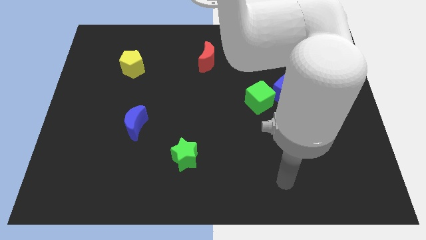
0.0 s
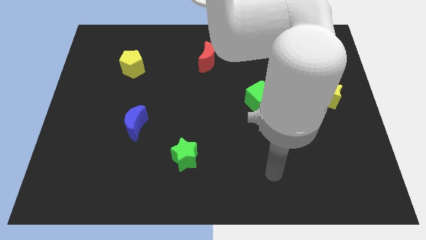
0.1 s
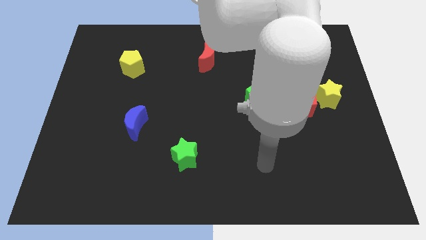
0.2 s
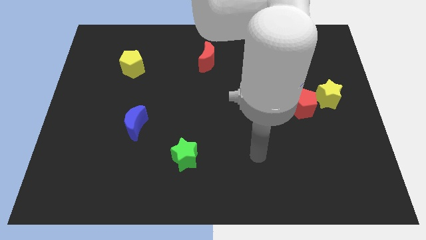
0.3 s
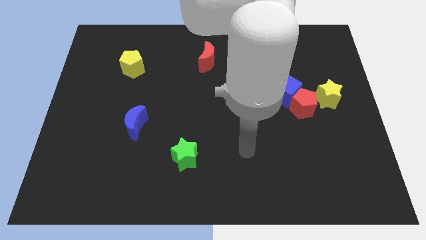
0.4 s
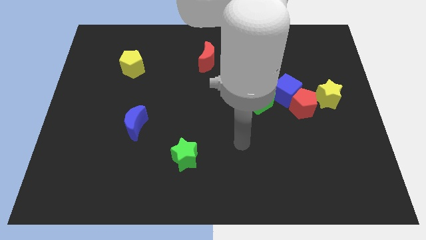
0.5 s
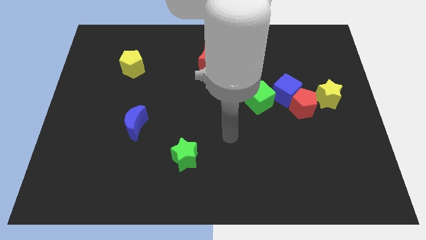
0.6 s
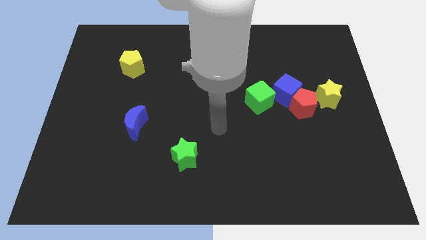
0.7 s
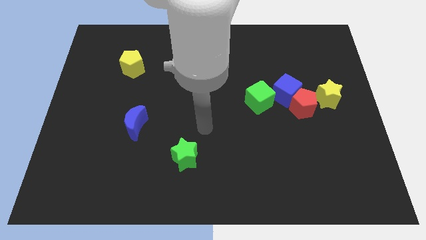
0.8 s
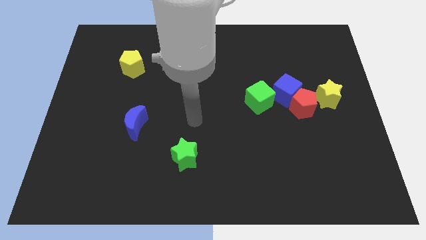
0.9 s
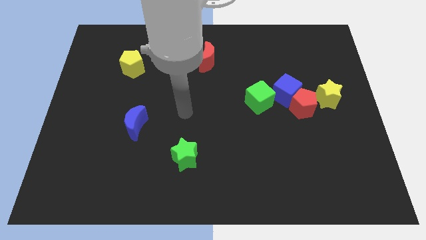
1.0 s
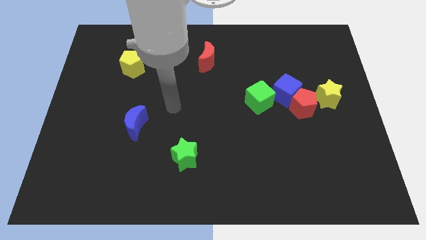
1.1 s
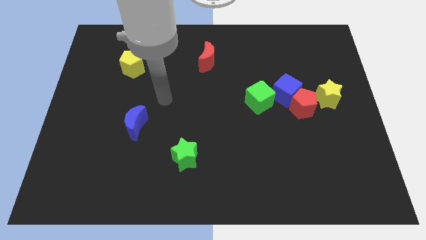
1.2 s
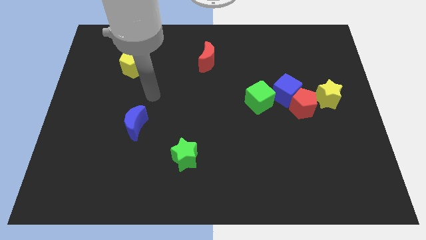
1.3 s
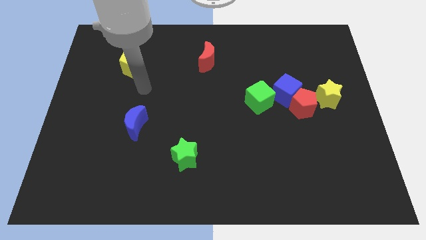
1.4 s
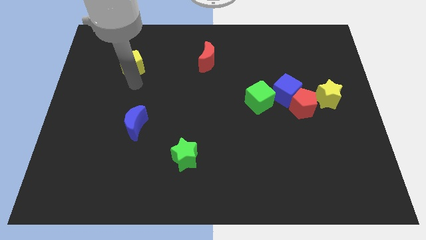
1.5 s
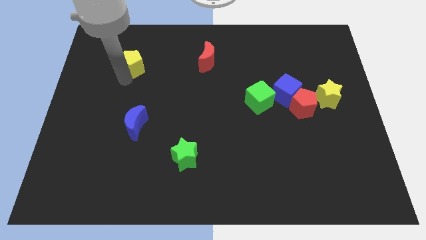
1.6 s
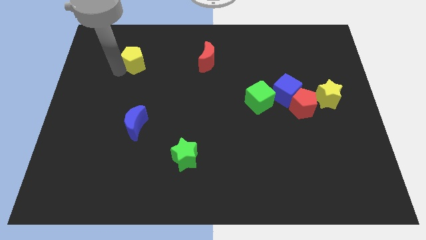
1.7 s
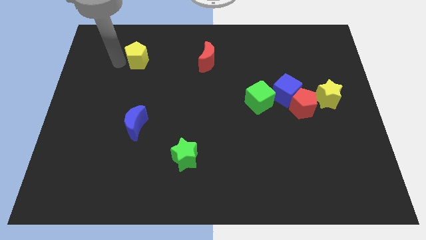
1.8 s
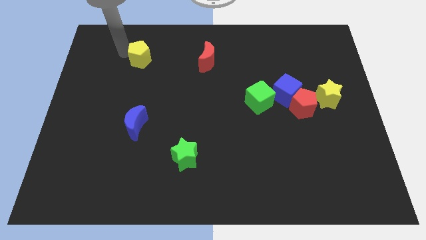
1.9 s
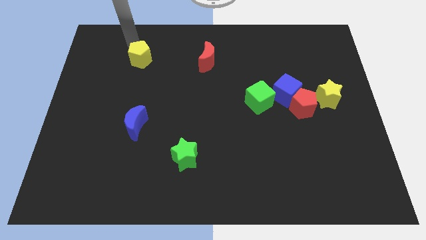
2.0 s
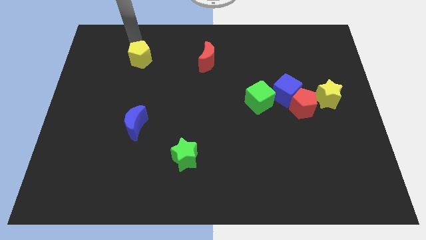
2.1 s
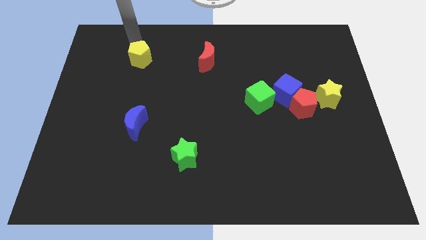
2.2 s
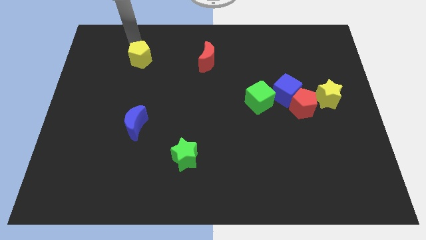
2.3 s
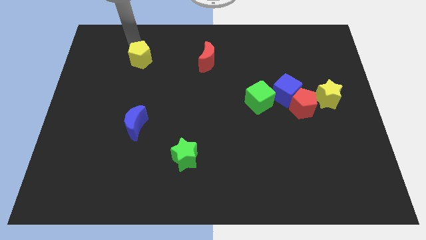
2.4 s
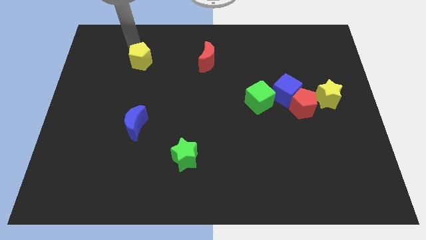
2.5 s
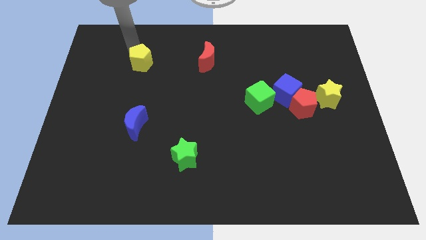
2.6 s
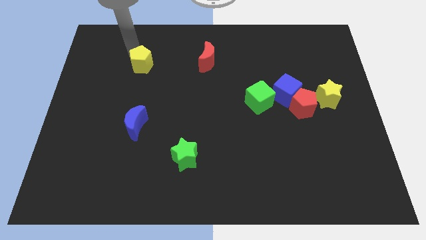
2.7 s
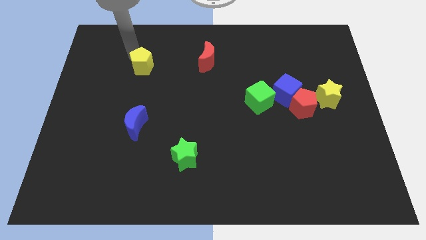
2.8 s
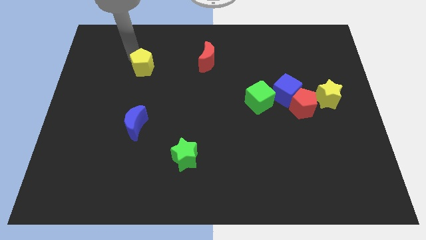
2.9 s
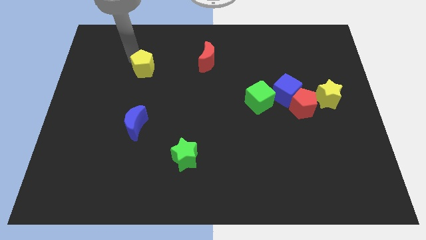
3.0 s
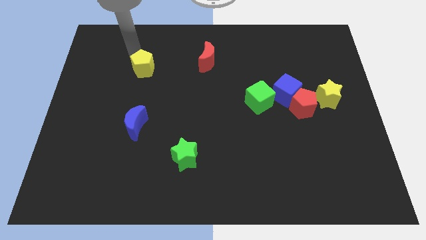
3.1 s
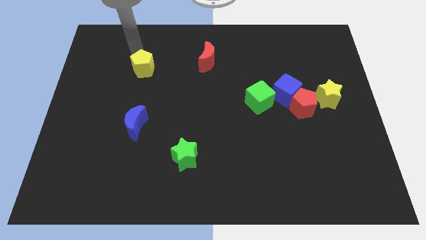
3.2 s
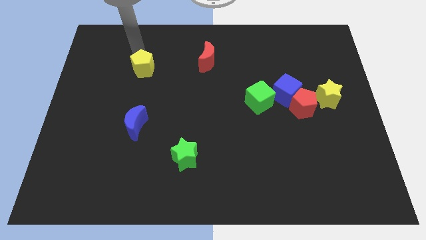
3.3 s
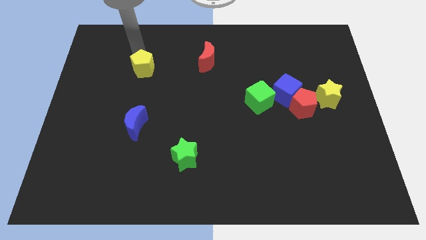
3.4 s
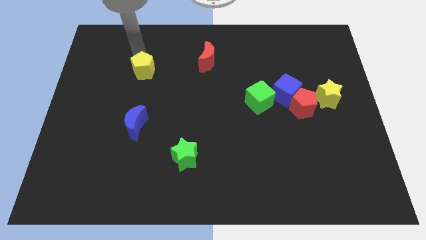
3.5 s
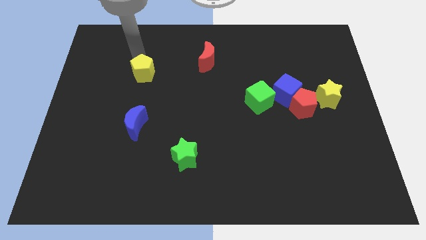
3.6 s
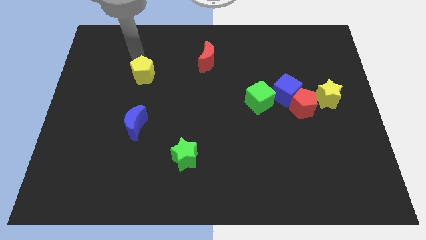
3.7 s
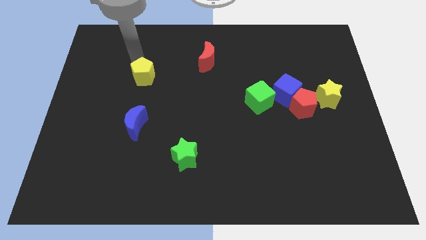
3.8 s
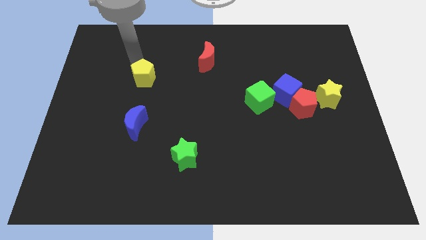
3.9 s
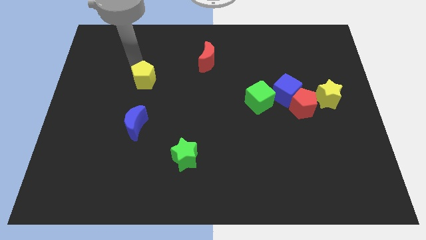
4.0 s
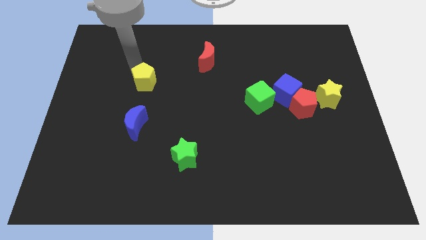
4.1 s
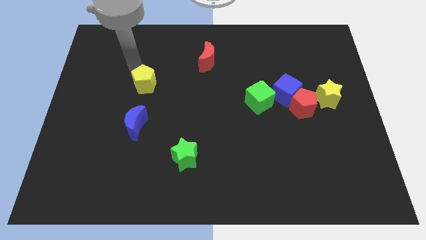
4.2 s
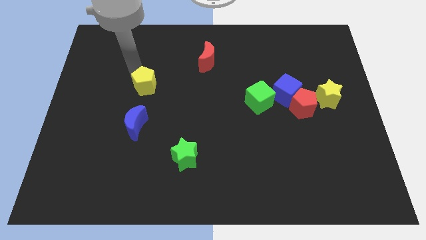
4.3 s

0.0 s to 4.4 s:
push the yellow pentagon somewhat downwards and then to the right

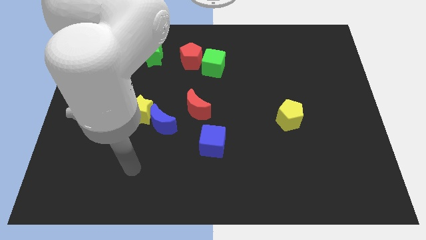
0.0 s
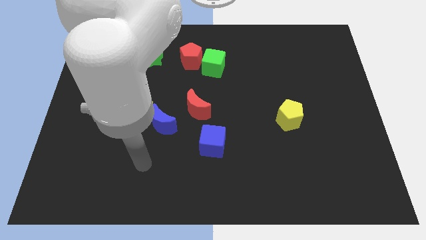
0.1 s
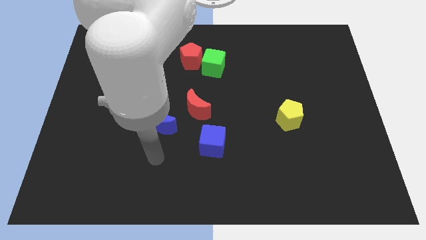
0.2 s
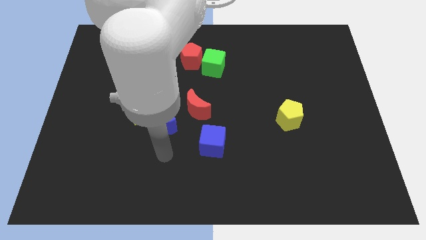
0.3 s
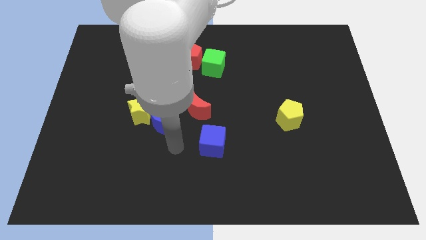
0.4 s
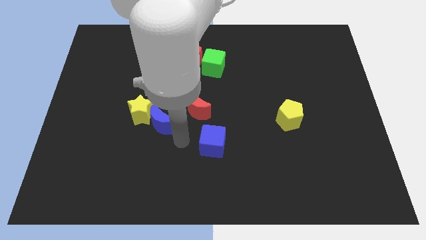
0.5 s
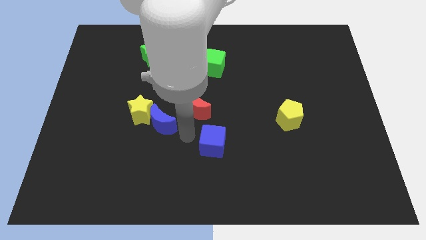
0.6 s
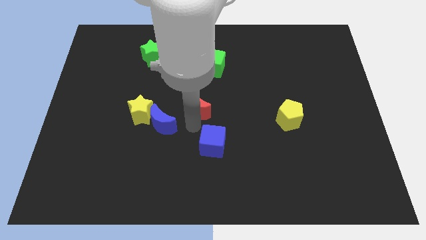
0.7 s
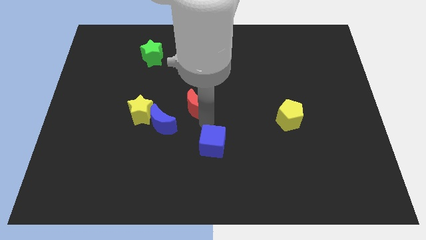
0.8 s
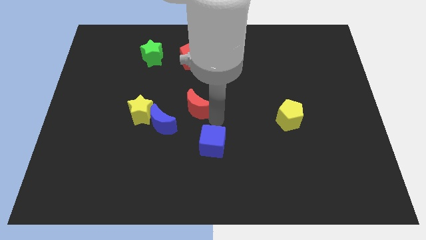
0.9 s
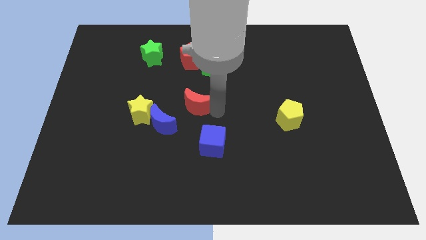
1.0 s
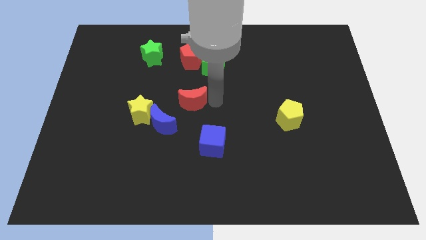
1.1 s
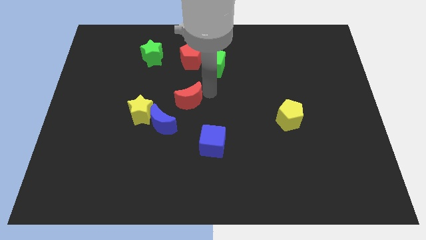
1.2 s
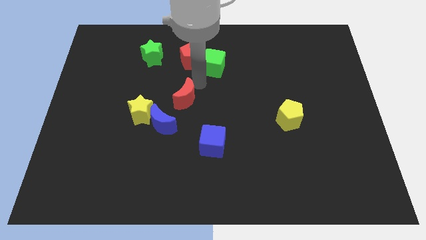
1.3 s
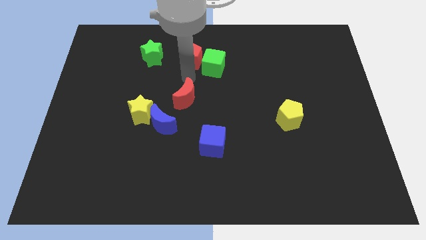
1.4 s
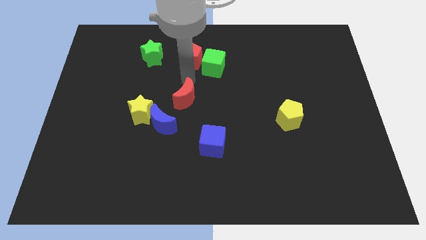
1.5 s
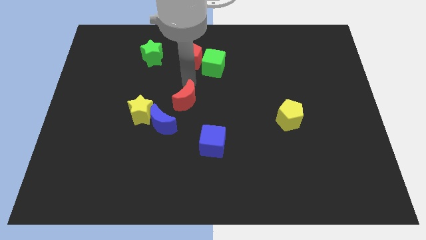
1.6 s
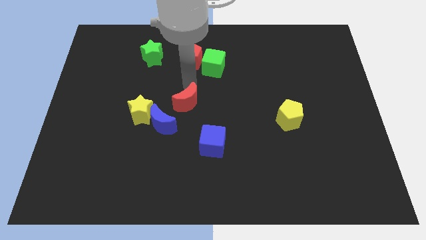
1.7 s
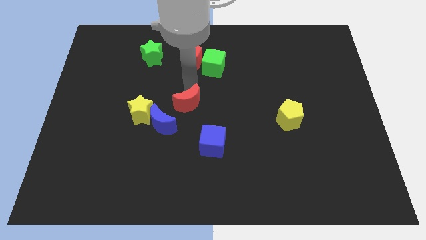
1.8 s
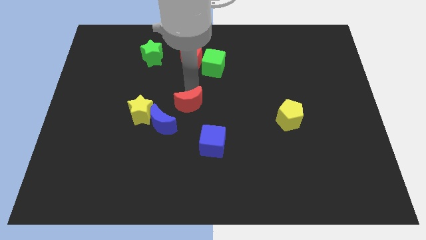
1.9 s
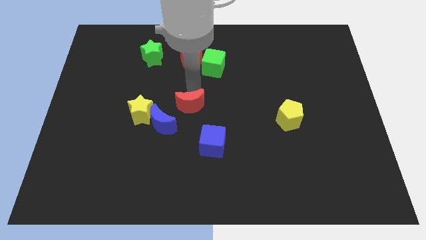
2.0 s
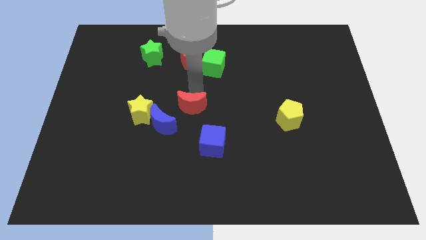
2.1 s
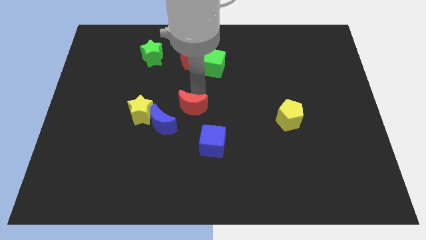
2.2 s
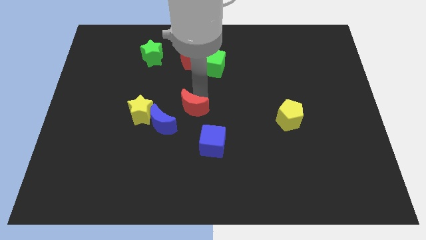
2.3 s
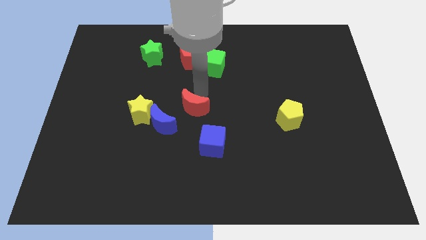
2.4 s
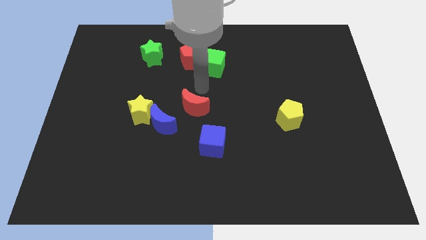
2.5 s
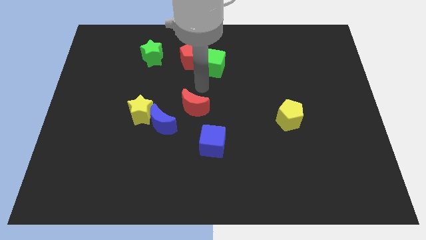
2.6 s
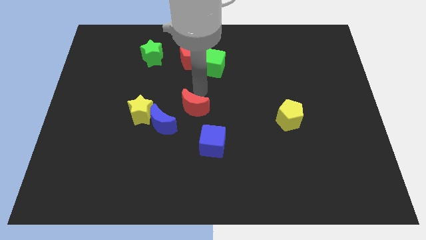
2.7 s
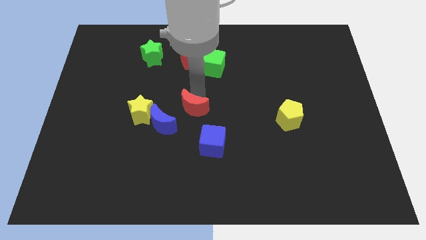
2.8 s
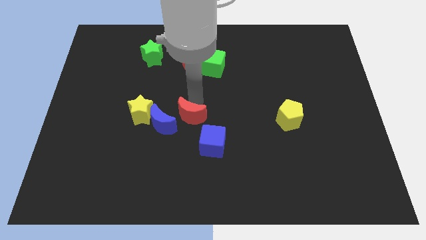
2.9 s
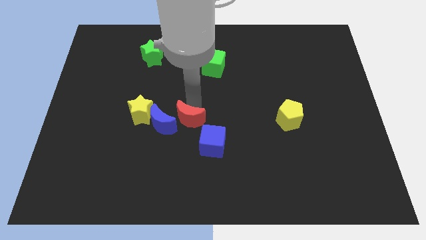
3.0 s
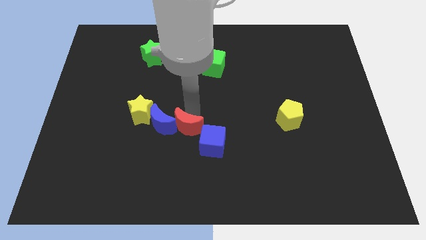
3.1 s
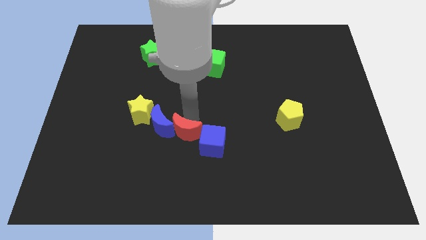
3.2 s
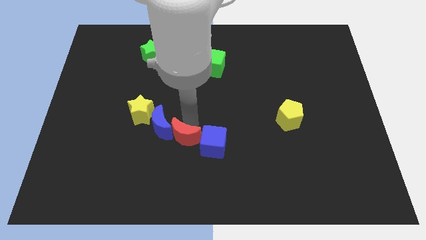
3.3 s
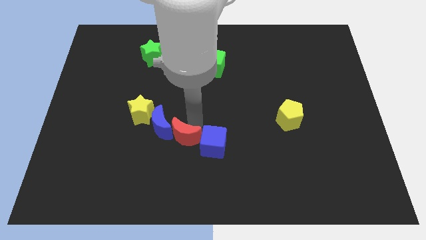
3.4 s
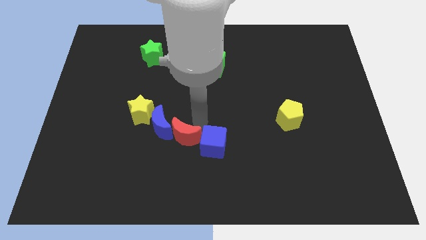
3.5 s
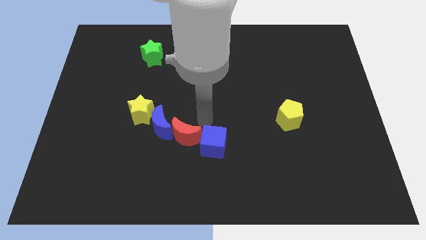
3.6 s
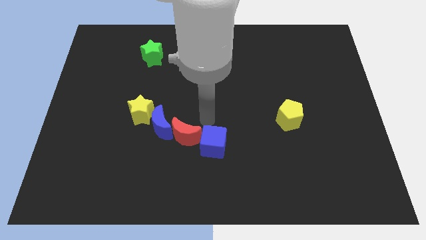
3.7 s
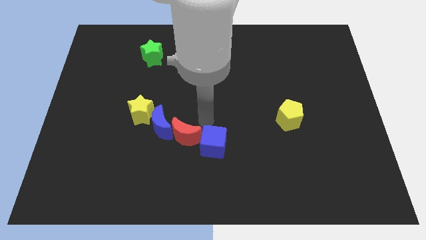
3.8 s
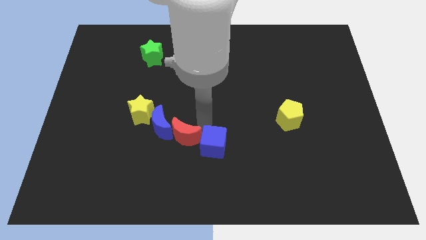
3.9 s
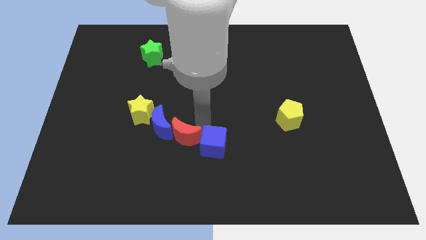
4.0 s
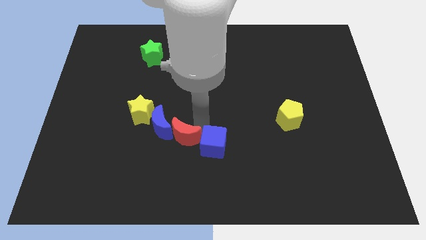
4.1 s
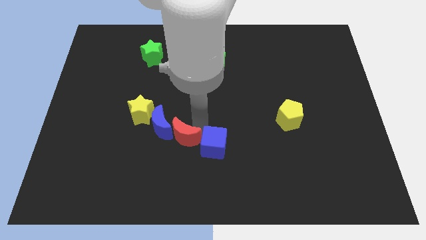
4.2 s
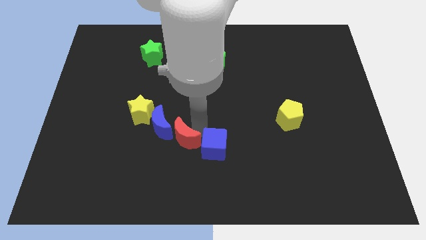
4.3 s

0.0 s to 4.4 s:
slightly move the red moon down and to the left
